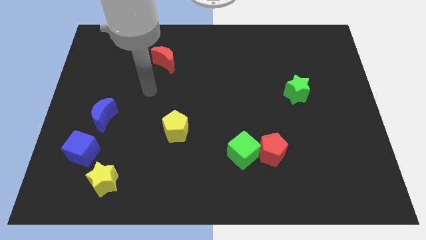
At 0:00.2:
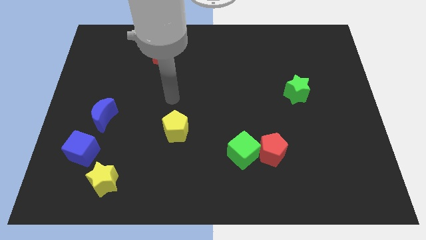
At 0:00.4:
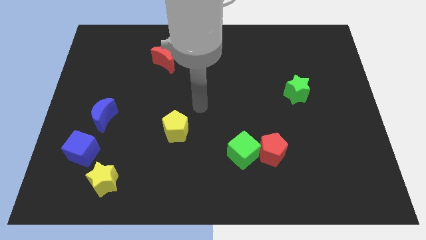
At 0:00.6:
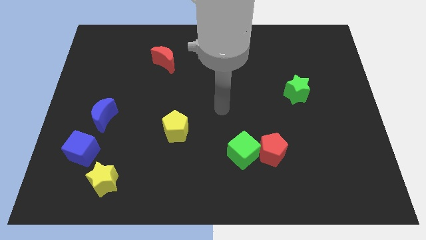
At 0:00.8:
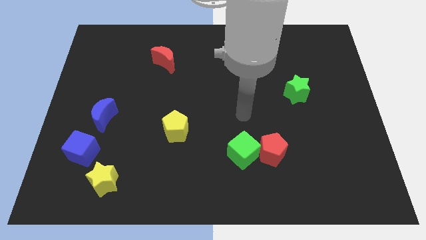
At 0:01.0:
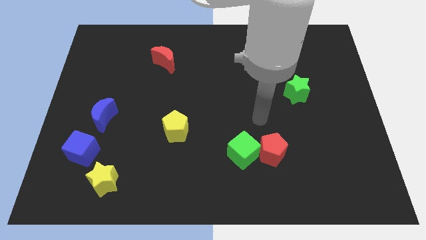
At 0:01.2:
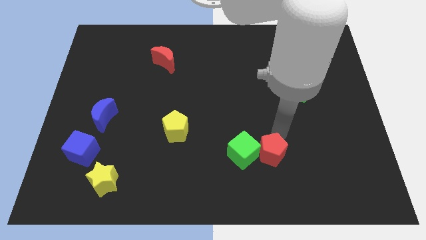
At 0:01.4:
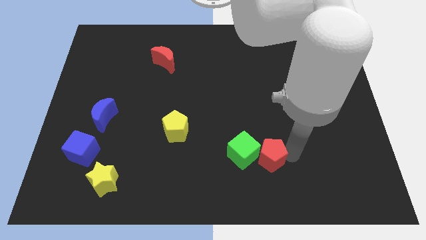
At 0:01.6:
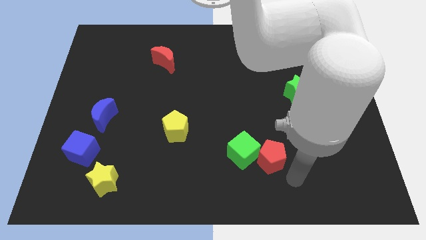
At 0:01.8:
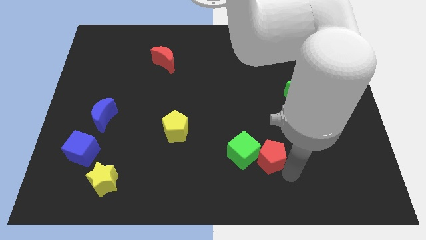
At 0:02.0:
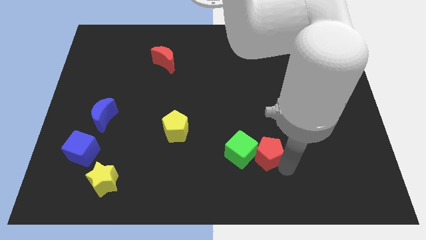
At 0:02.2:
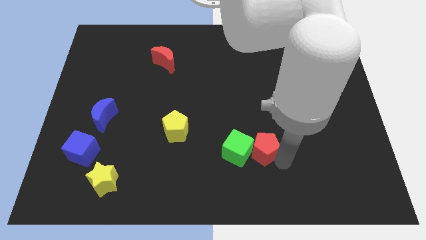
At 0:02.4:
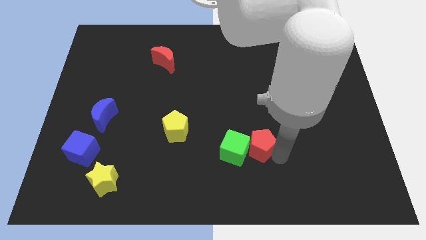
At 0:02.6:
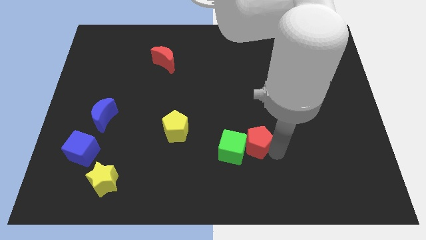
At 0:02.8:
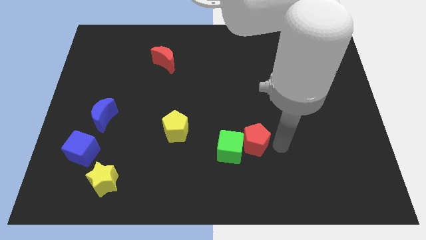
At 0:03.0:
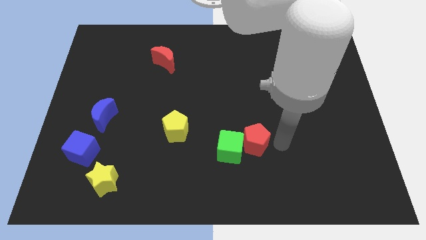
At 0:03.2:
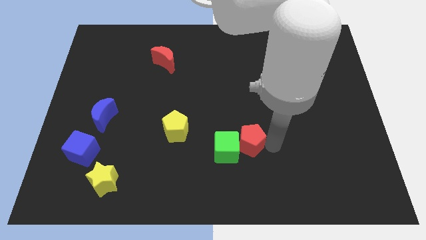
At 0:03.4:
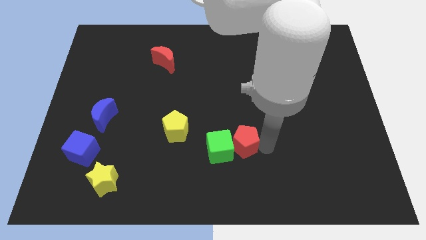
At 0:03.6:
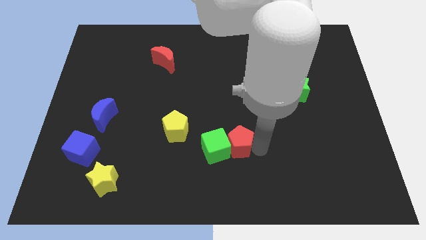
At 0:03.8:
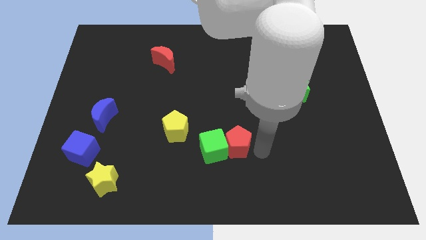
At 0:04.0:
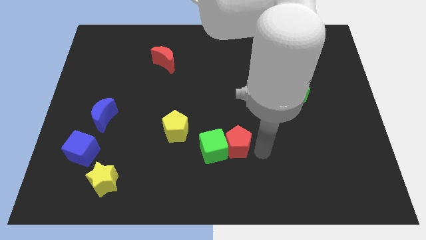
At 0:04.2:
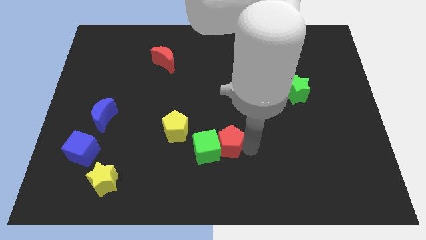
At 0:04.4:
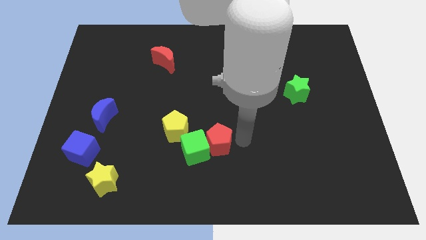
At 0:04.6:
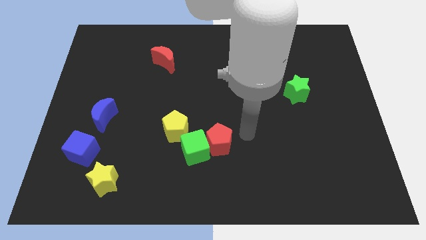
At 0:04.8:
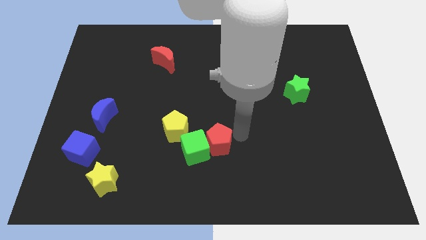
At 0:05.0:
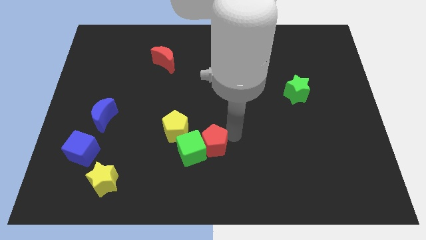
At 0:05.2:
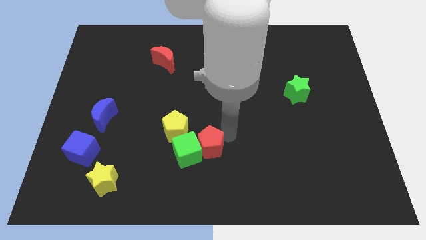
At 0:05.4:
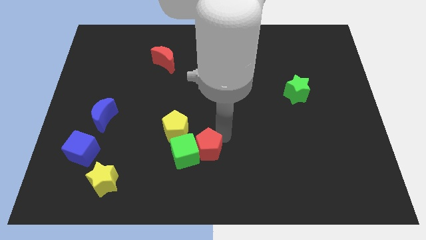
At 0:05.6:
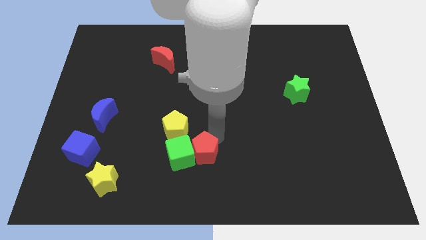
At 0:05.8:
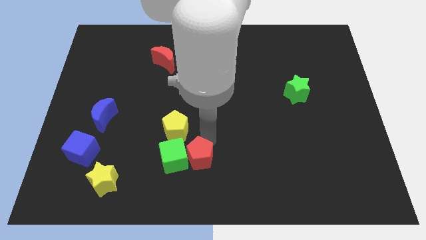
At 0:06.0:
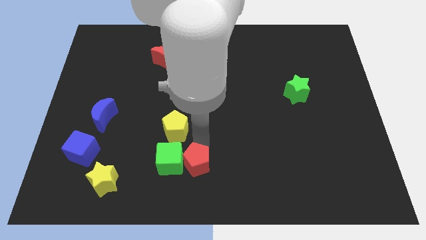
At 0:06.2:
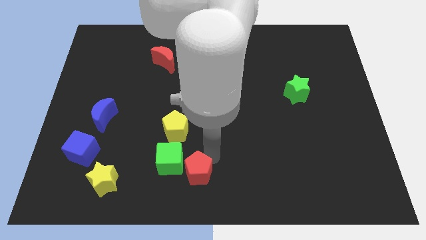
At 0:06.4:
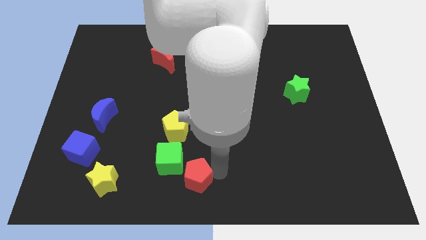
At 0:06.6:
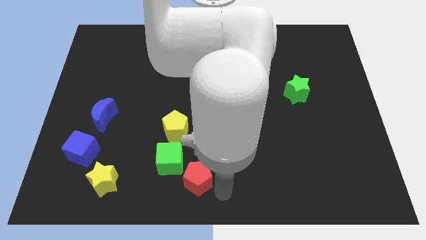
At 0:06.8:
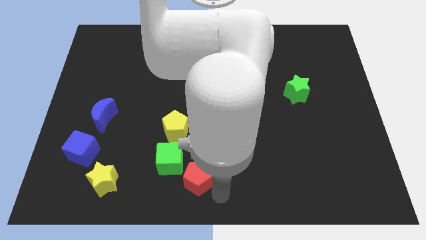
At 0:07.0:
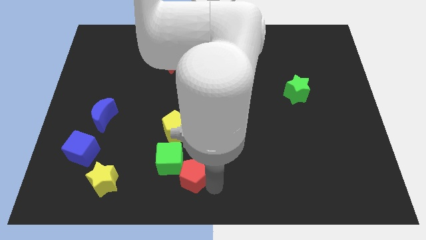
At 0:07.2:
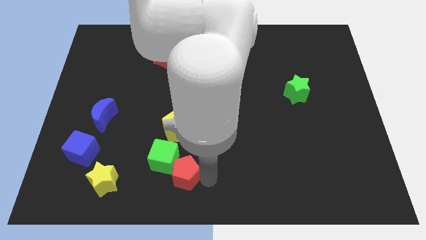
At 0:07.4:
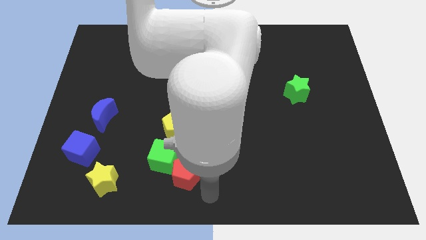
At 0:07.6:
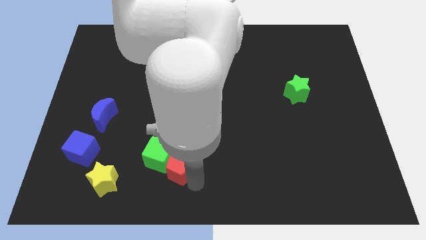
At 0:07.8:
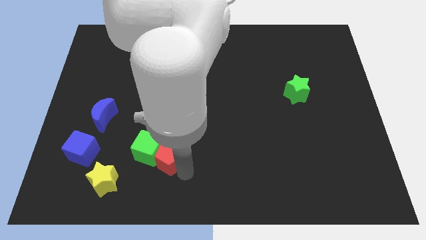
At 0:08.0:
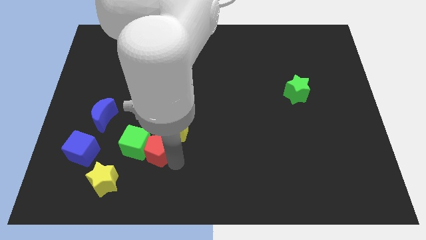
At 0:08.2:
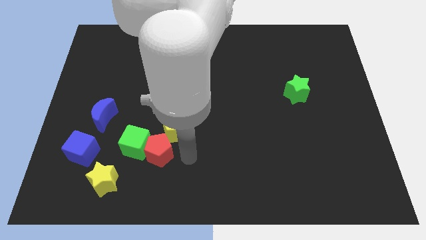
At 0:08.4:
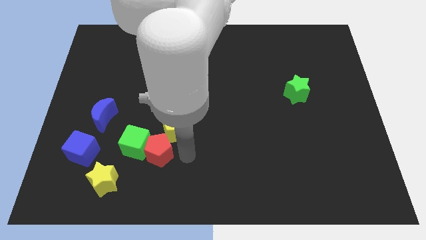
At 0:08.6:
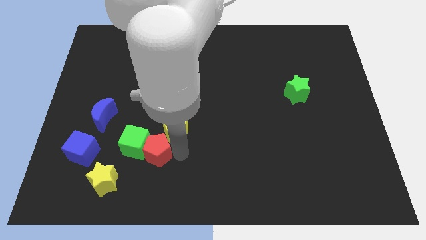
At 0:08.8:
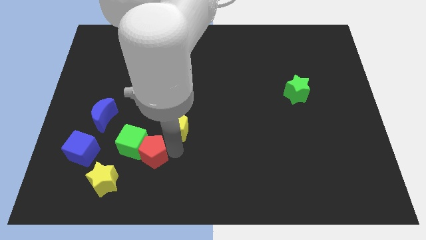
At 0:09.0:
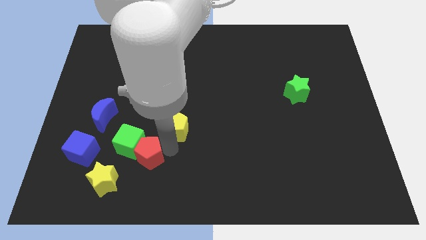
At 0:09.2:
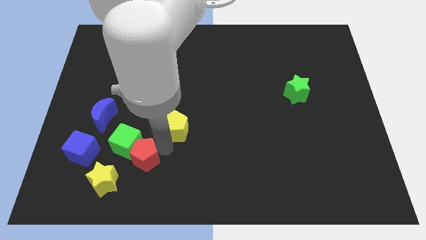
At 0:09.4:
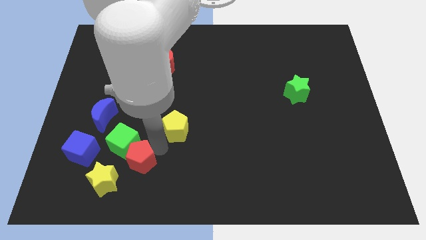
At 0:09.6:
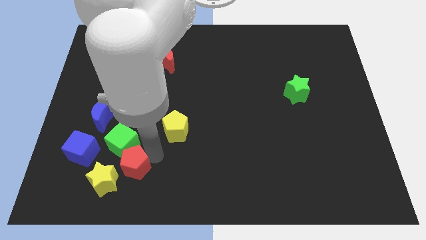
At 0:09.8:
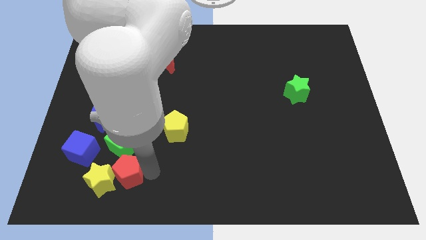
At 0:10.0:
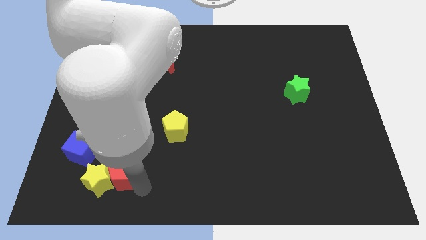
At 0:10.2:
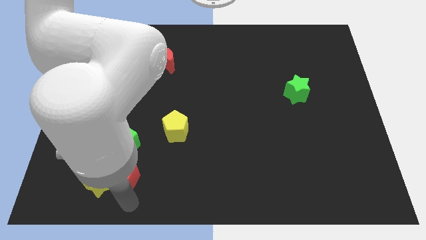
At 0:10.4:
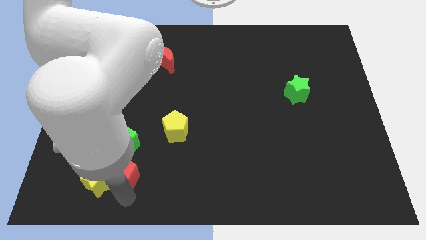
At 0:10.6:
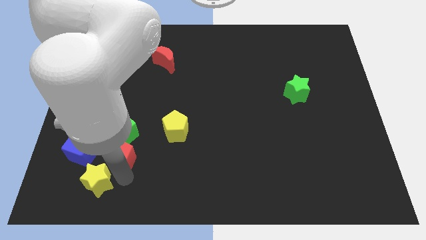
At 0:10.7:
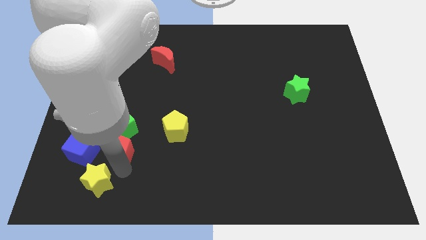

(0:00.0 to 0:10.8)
move the red pentagon diagonally down and to the right of the blue moon

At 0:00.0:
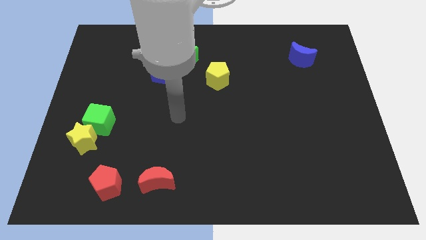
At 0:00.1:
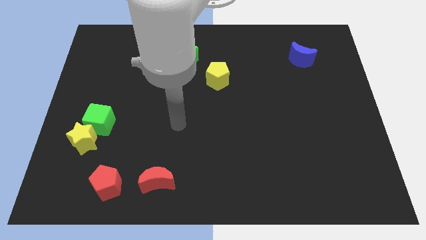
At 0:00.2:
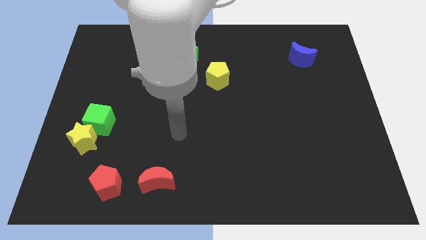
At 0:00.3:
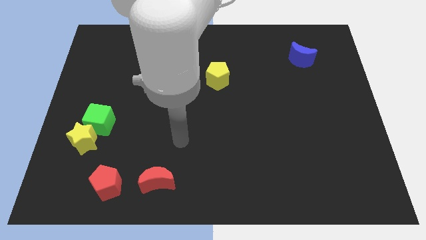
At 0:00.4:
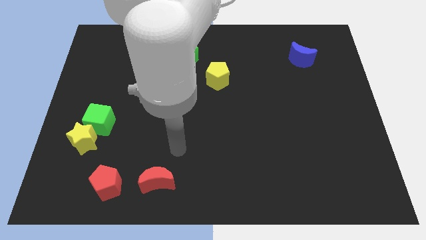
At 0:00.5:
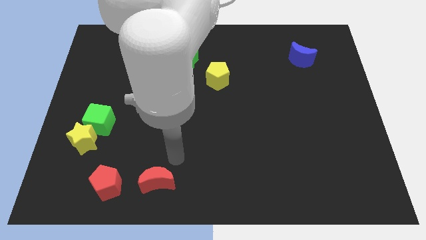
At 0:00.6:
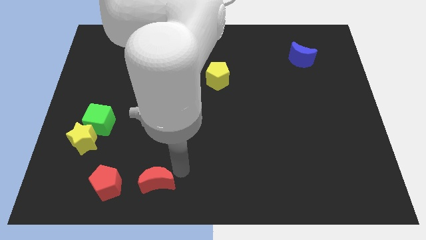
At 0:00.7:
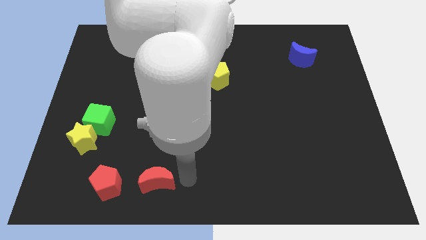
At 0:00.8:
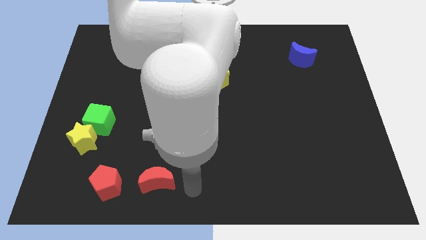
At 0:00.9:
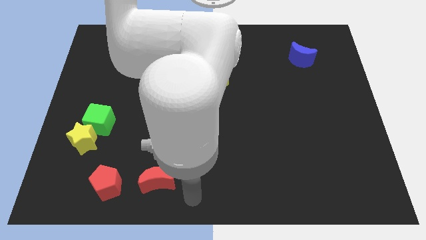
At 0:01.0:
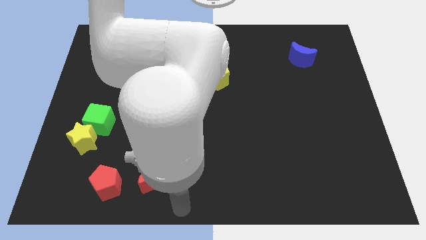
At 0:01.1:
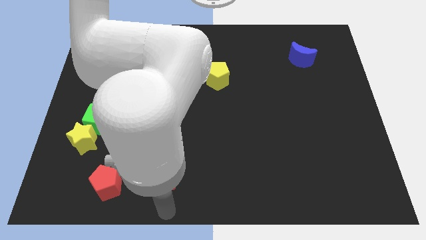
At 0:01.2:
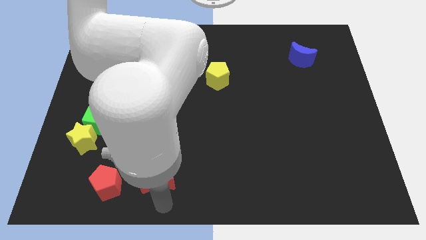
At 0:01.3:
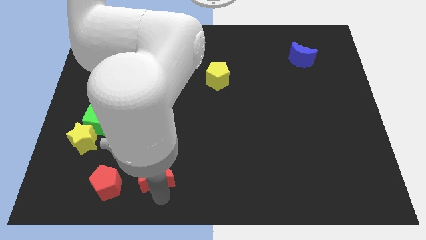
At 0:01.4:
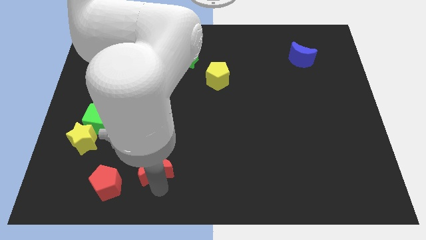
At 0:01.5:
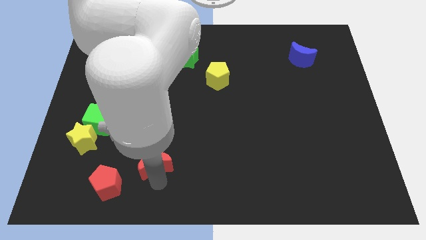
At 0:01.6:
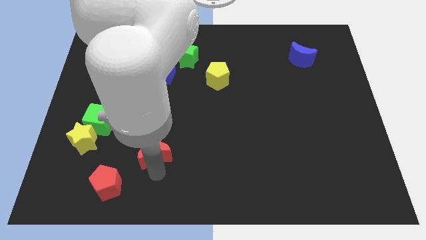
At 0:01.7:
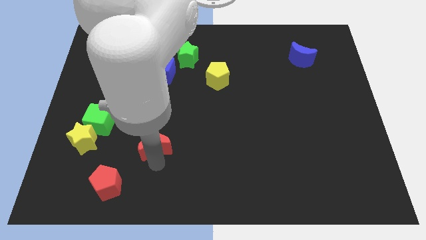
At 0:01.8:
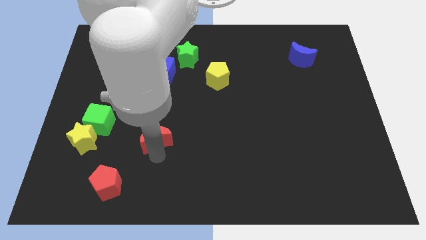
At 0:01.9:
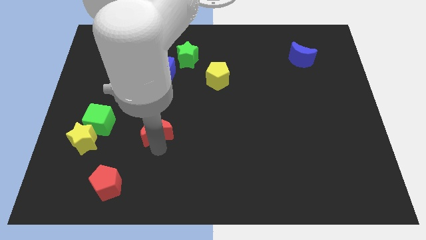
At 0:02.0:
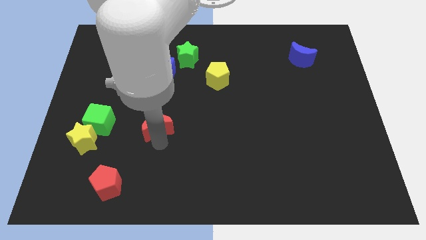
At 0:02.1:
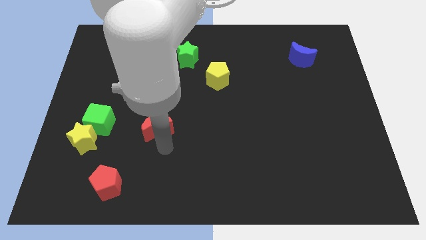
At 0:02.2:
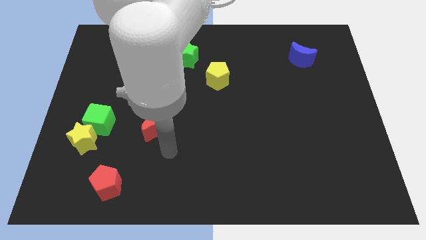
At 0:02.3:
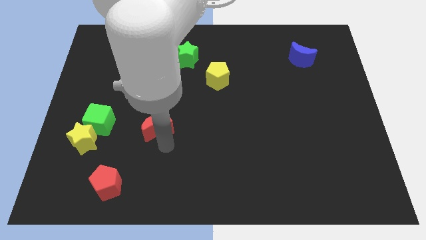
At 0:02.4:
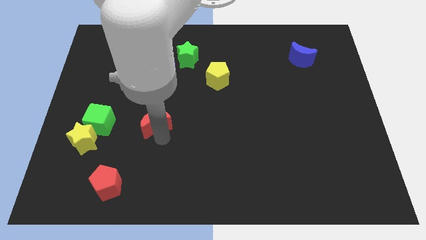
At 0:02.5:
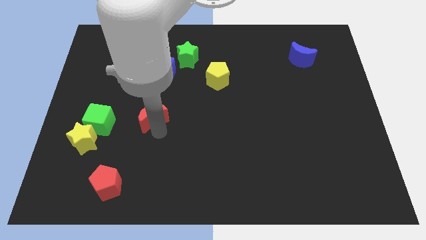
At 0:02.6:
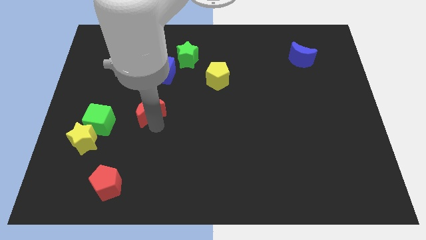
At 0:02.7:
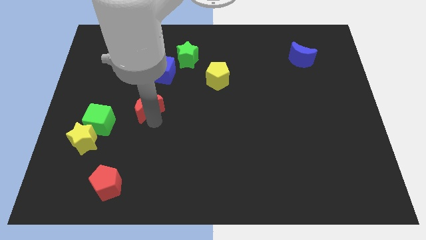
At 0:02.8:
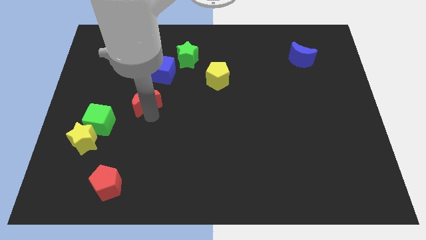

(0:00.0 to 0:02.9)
slide the red moon to the bottom left of the blue cube
